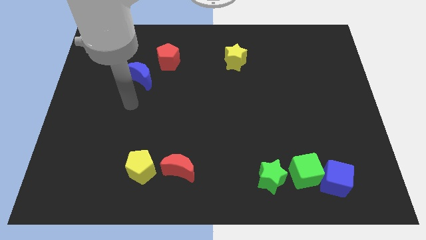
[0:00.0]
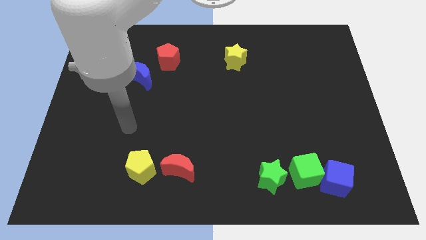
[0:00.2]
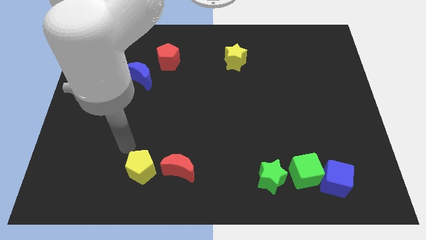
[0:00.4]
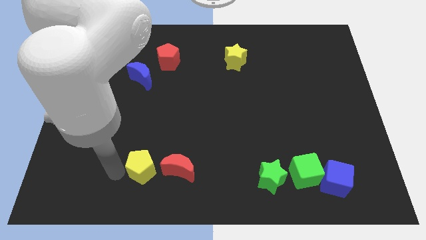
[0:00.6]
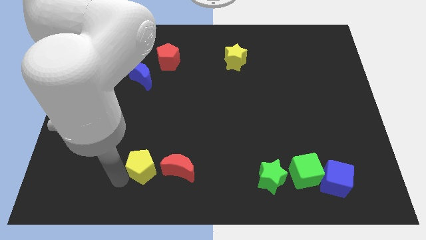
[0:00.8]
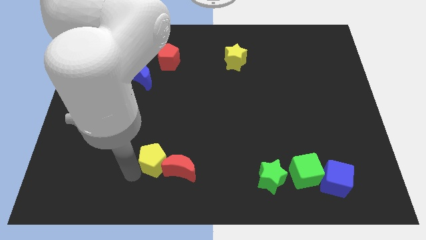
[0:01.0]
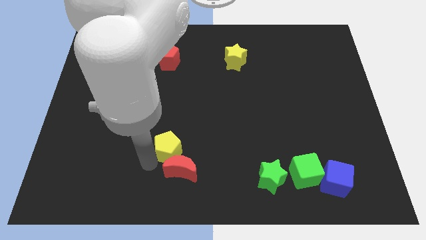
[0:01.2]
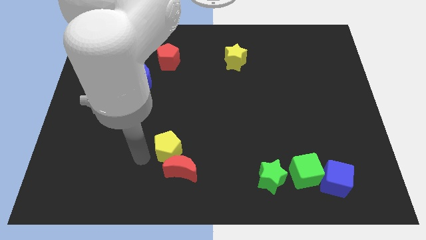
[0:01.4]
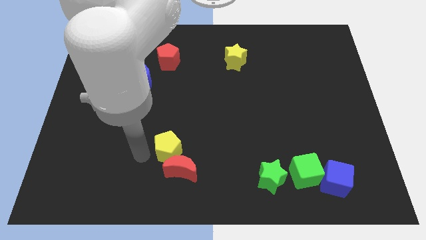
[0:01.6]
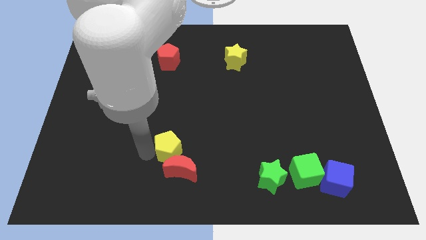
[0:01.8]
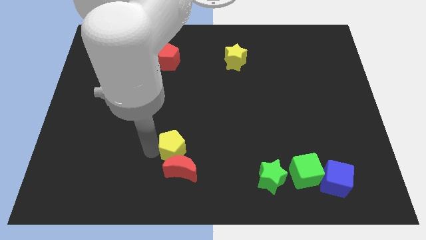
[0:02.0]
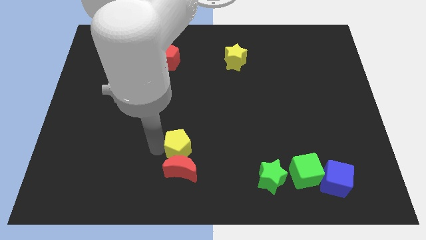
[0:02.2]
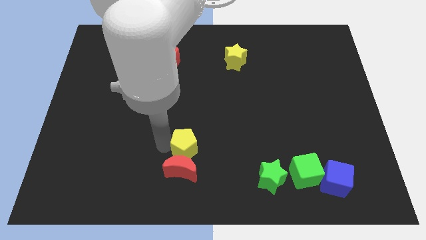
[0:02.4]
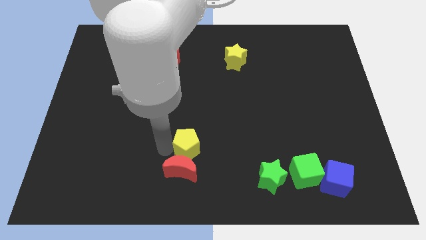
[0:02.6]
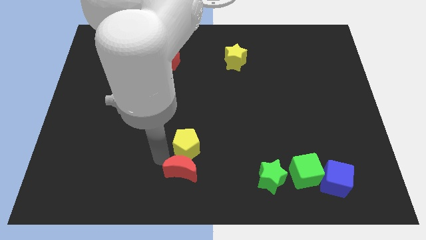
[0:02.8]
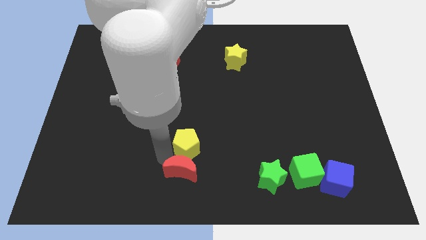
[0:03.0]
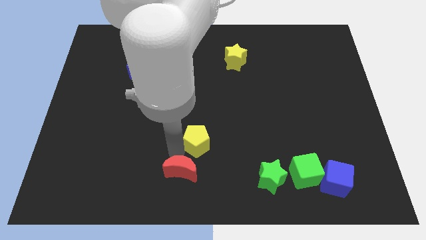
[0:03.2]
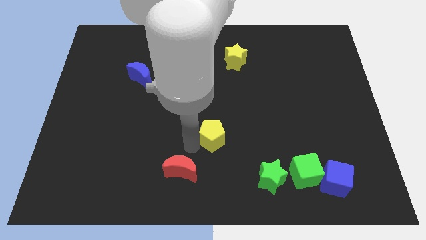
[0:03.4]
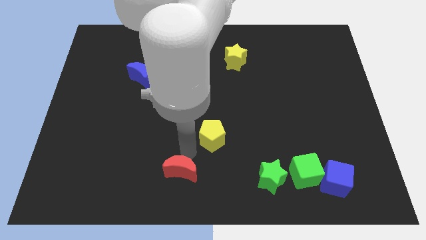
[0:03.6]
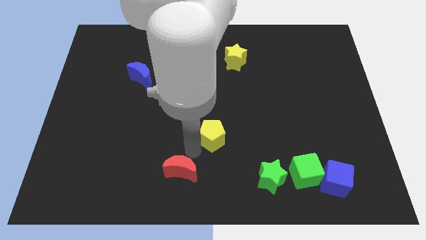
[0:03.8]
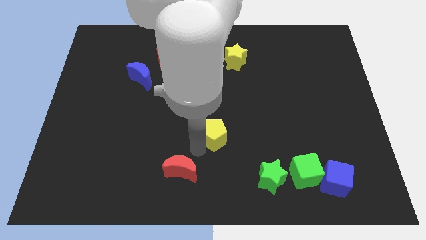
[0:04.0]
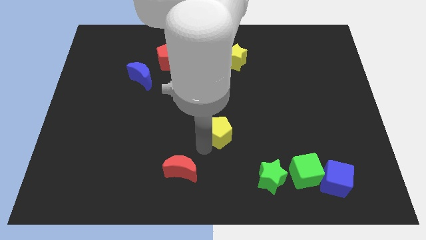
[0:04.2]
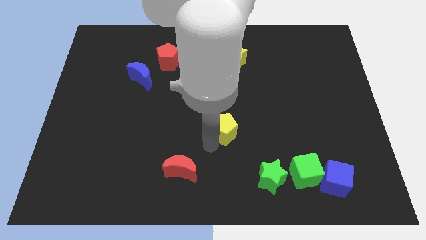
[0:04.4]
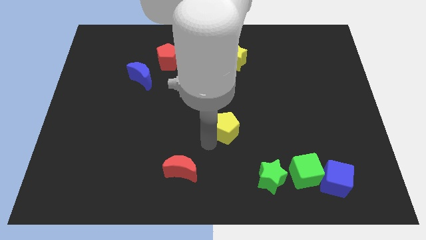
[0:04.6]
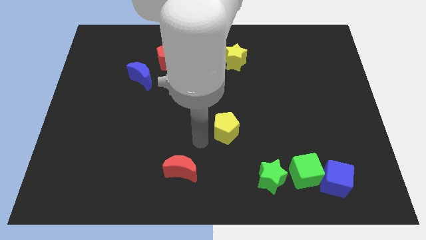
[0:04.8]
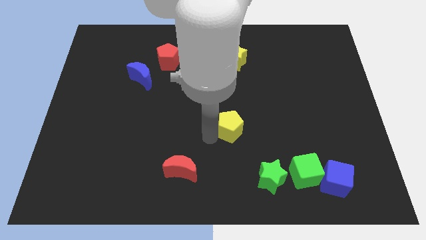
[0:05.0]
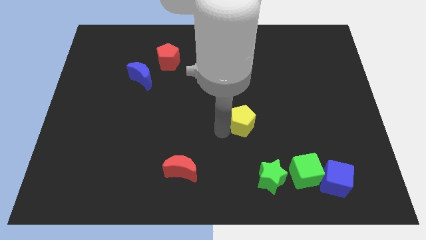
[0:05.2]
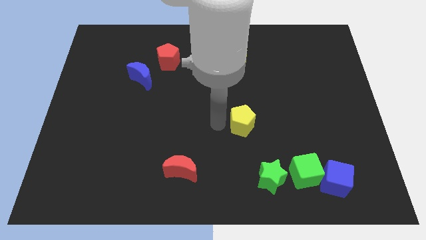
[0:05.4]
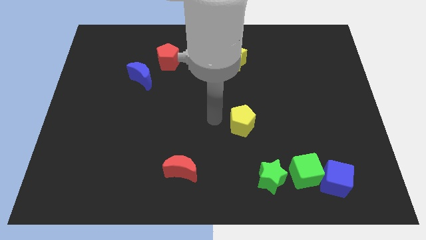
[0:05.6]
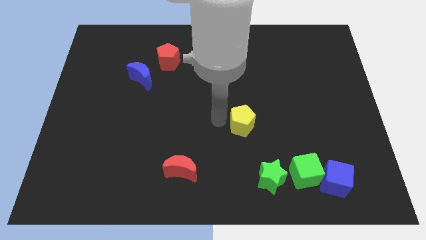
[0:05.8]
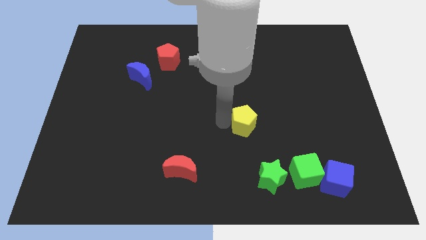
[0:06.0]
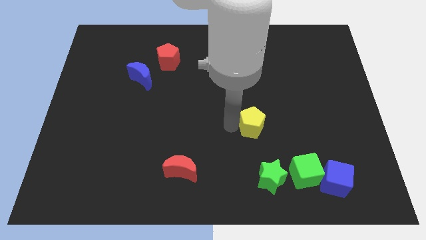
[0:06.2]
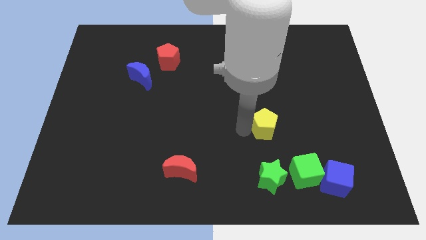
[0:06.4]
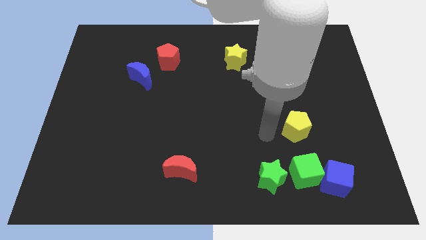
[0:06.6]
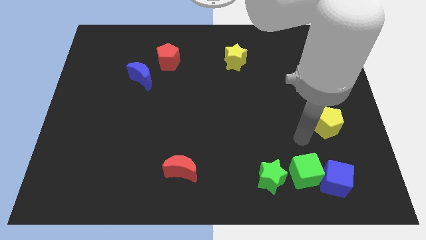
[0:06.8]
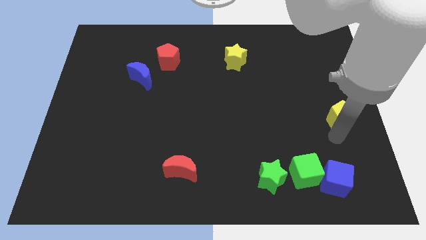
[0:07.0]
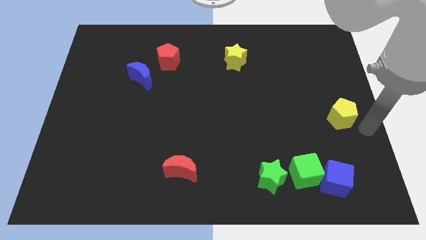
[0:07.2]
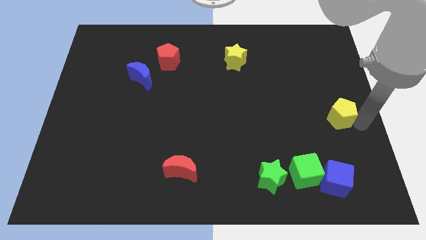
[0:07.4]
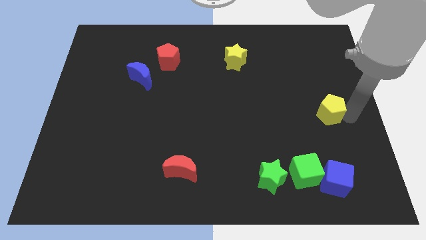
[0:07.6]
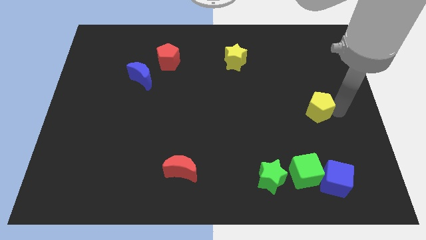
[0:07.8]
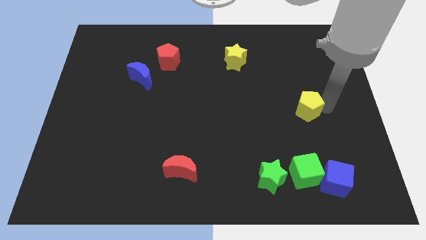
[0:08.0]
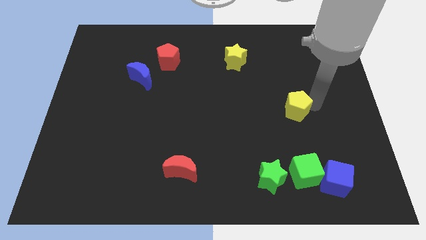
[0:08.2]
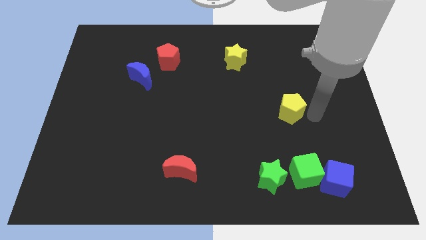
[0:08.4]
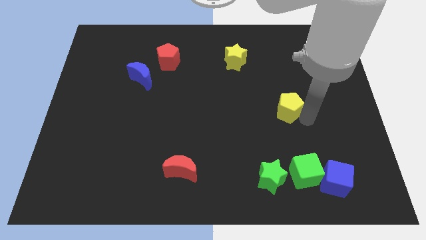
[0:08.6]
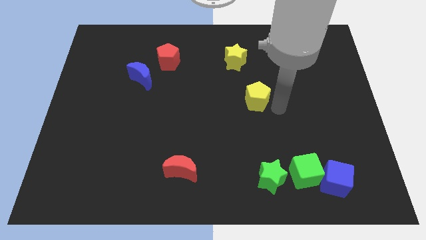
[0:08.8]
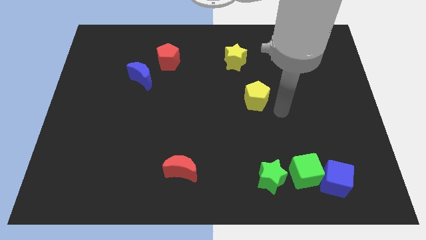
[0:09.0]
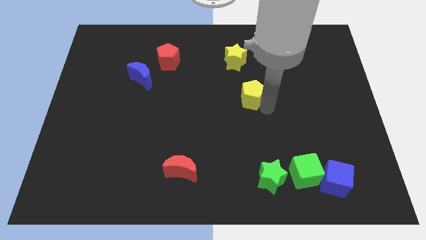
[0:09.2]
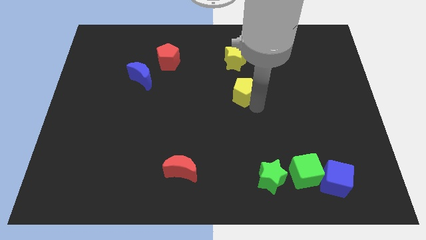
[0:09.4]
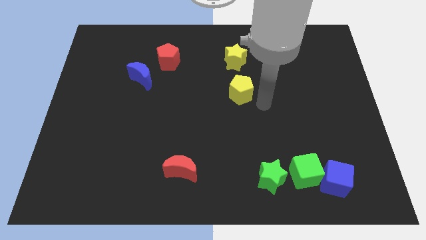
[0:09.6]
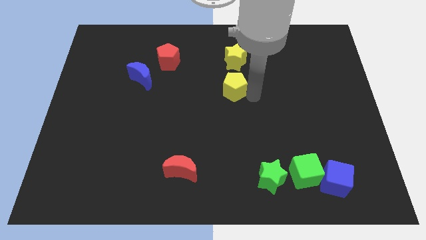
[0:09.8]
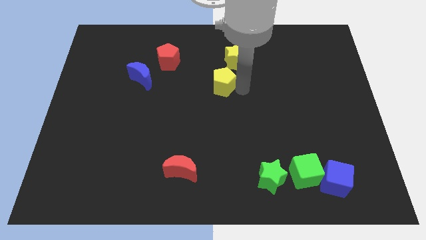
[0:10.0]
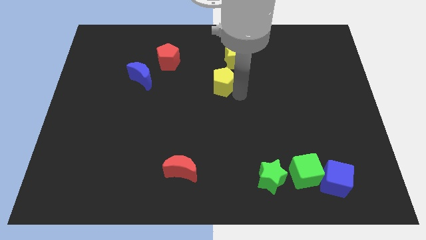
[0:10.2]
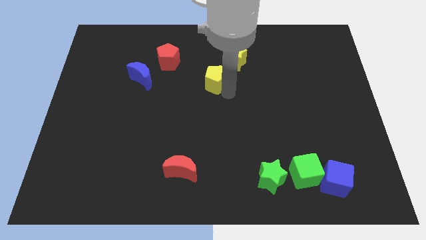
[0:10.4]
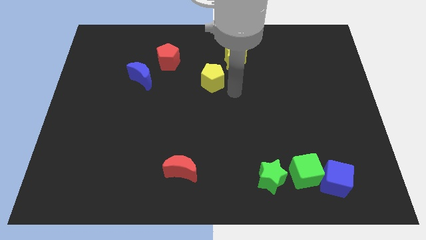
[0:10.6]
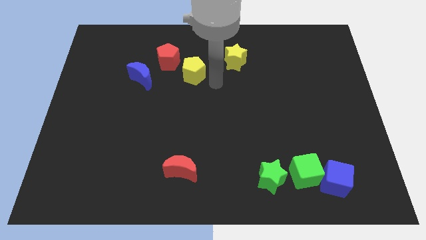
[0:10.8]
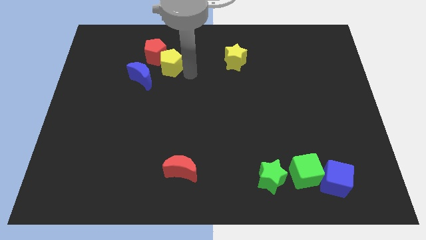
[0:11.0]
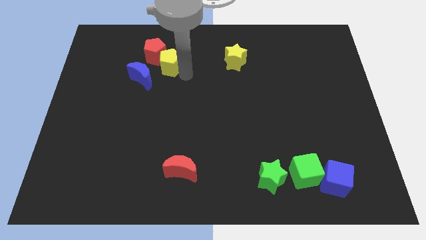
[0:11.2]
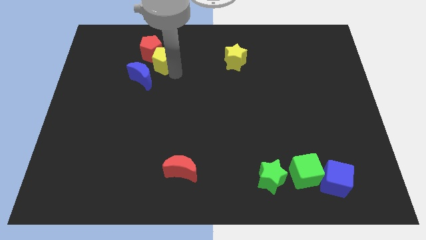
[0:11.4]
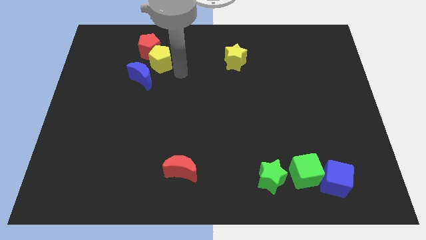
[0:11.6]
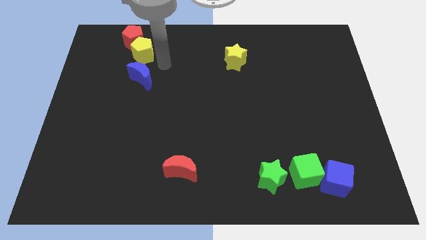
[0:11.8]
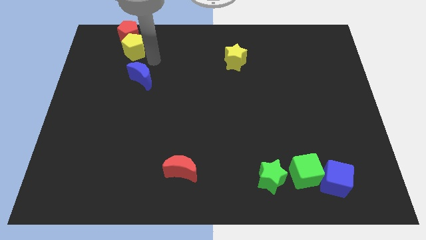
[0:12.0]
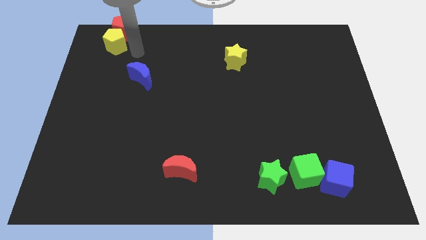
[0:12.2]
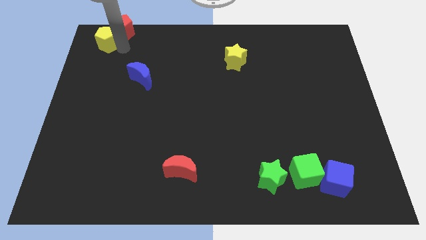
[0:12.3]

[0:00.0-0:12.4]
slide the yellow pentagon to the top left

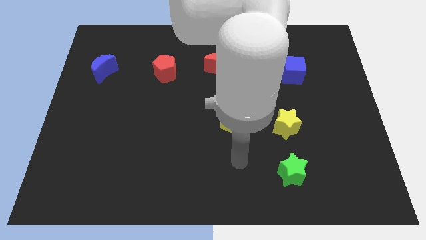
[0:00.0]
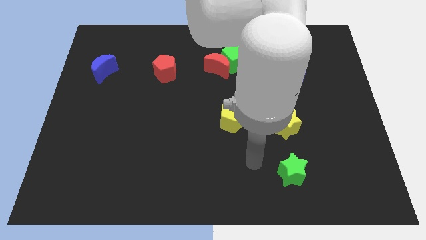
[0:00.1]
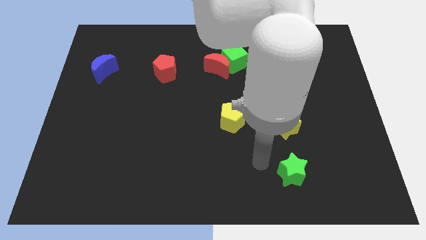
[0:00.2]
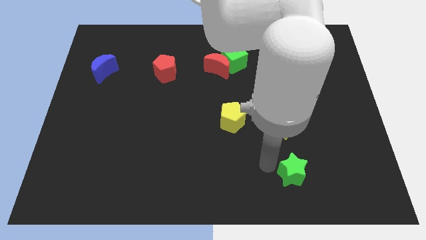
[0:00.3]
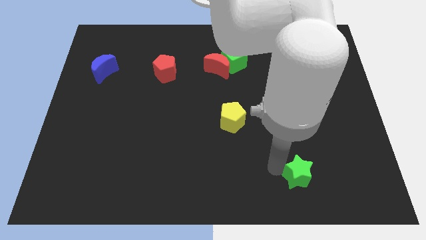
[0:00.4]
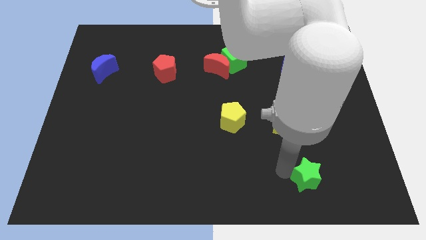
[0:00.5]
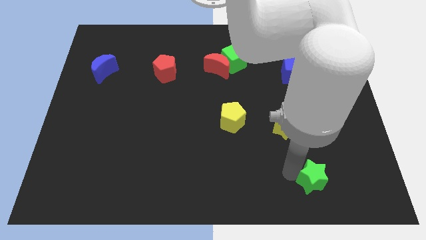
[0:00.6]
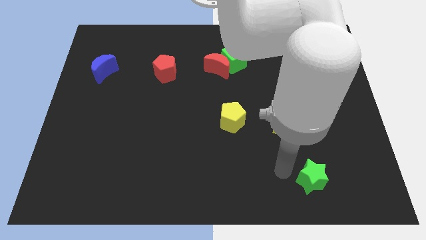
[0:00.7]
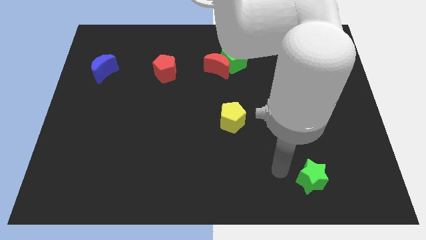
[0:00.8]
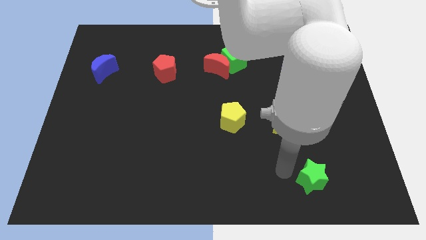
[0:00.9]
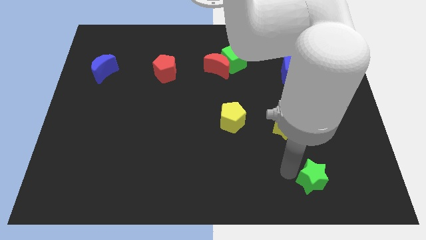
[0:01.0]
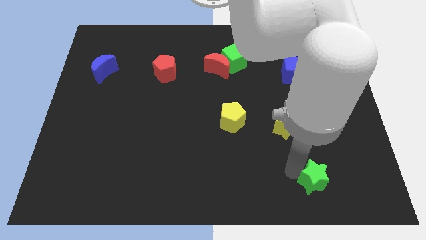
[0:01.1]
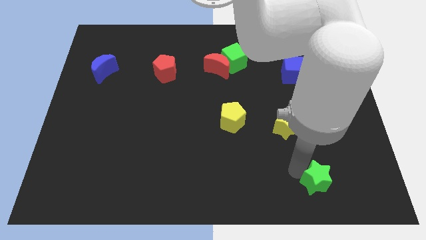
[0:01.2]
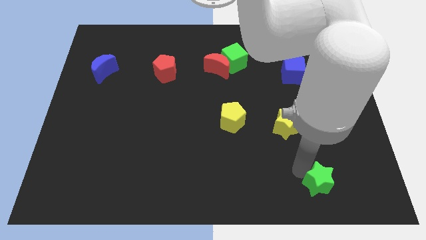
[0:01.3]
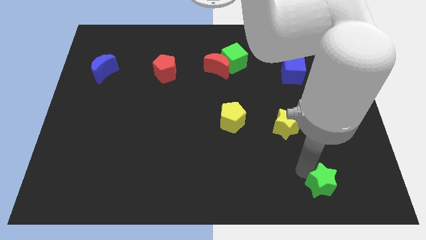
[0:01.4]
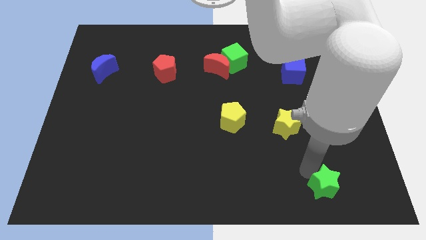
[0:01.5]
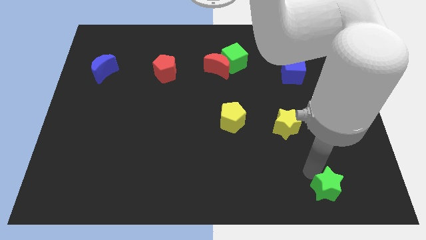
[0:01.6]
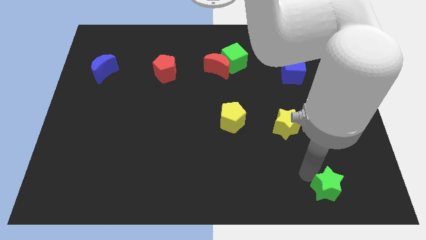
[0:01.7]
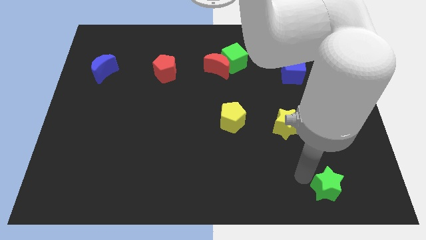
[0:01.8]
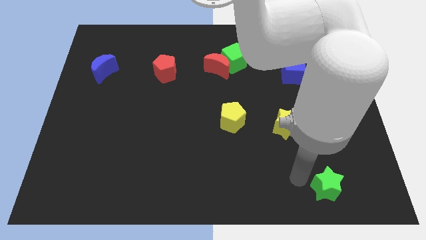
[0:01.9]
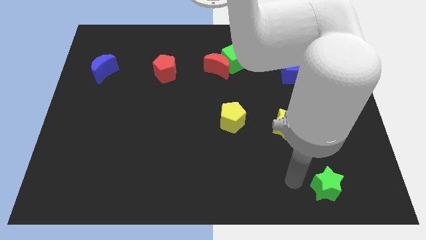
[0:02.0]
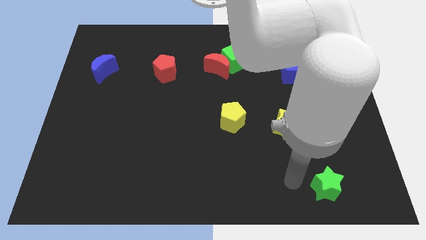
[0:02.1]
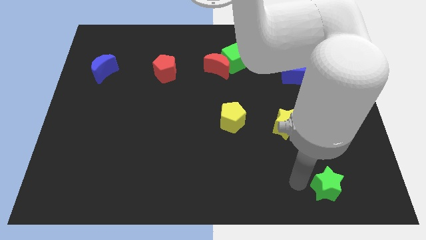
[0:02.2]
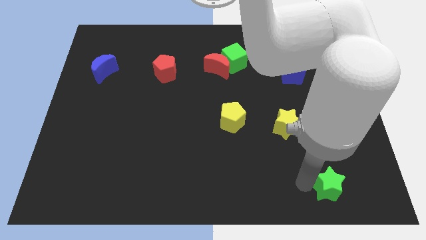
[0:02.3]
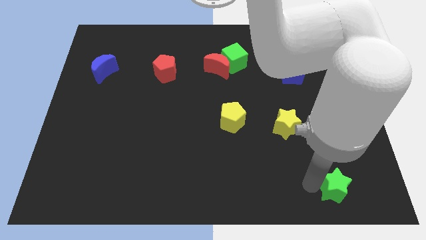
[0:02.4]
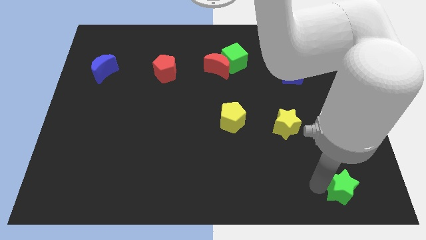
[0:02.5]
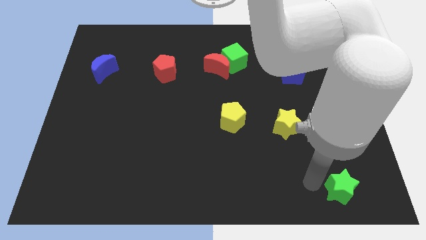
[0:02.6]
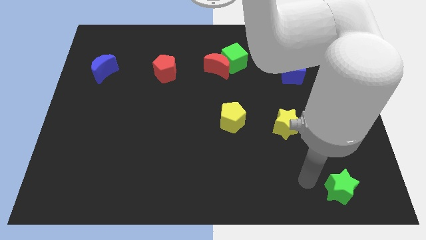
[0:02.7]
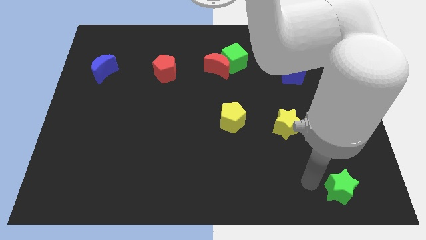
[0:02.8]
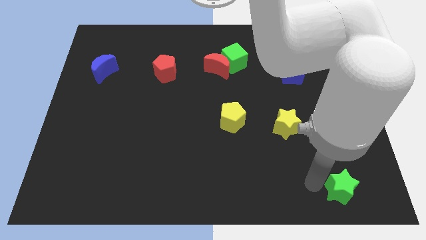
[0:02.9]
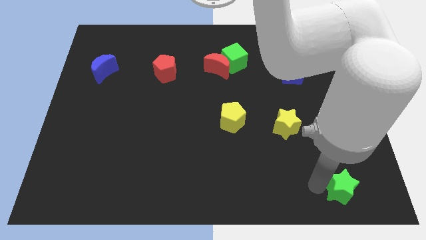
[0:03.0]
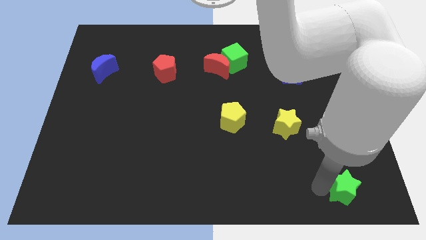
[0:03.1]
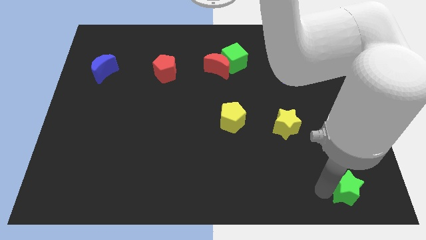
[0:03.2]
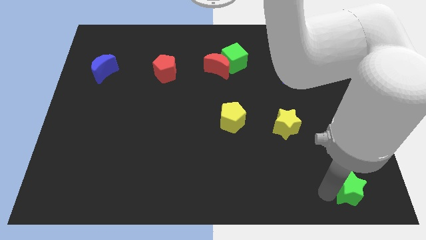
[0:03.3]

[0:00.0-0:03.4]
put the green star to the bottom right of the board
